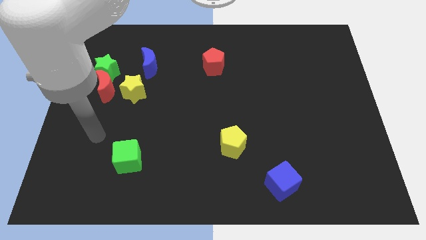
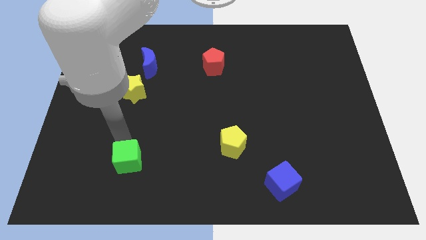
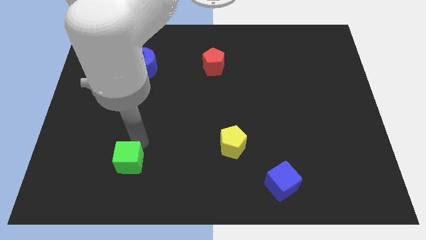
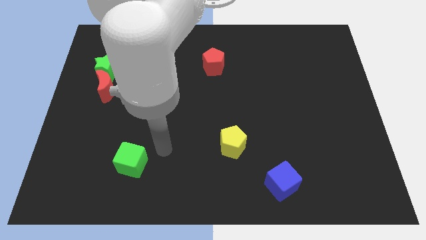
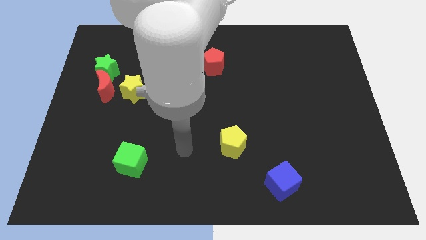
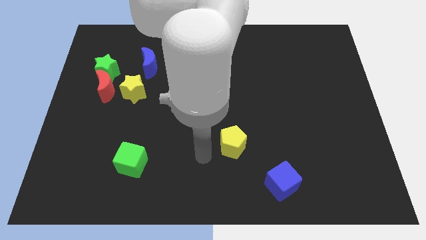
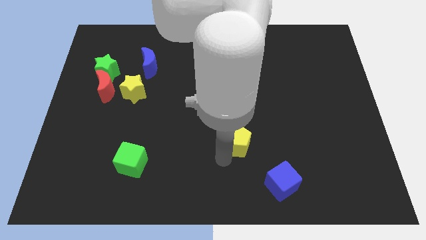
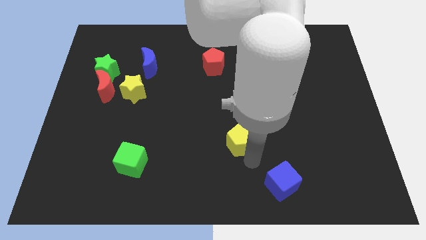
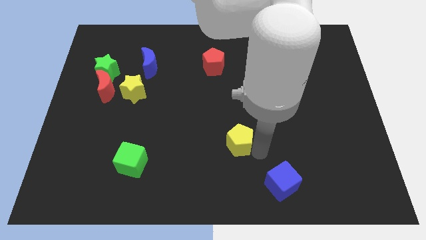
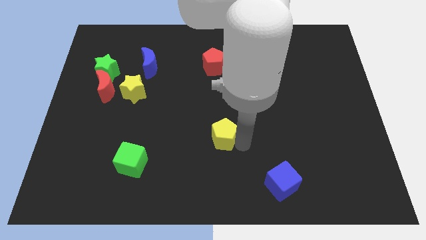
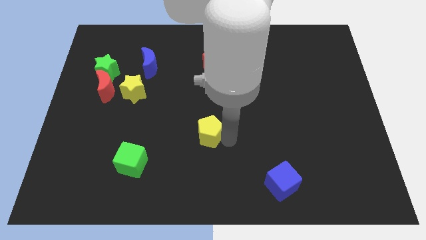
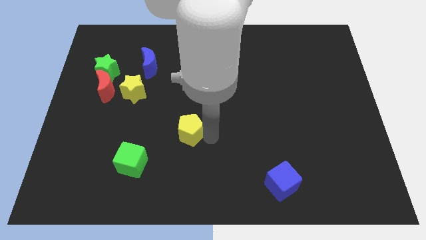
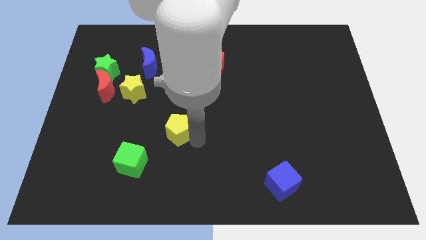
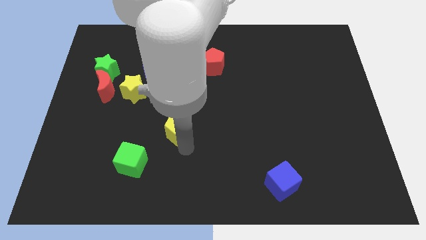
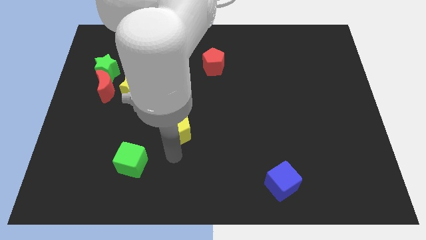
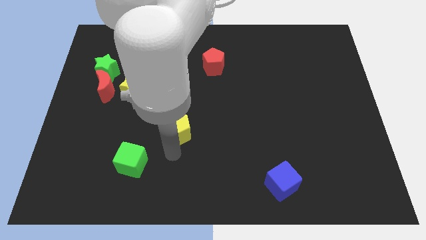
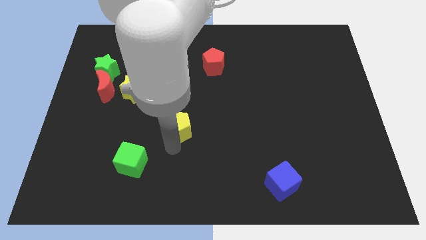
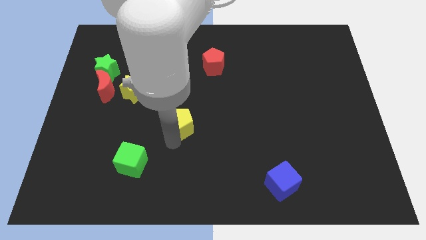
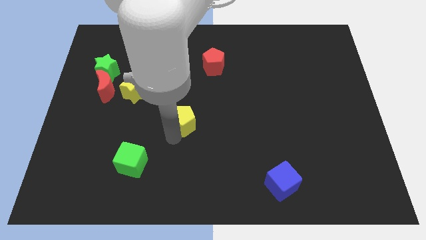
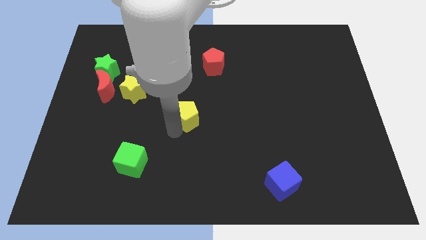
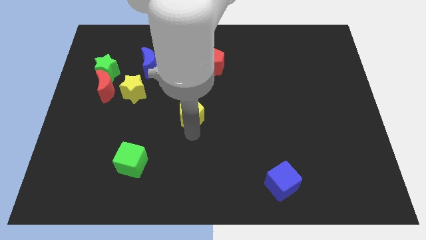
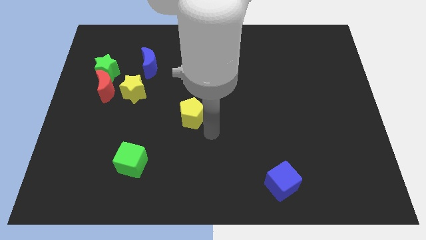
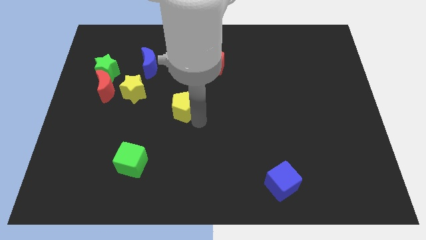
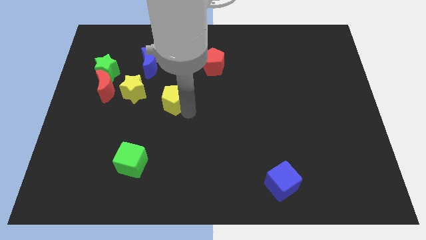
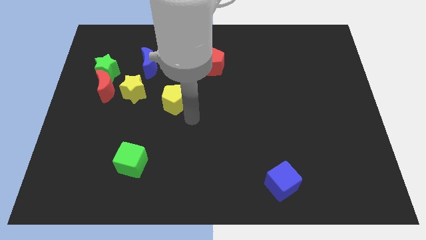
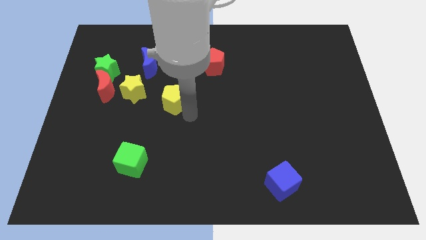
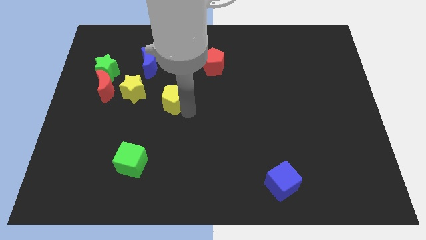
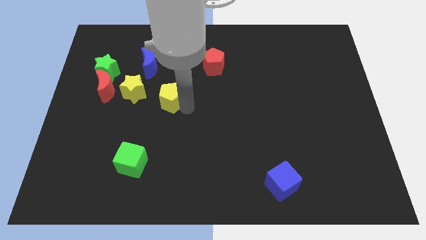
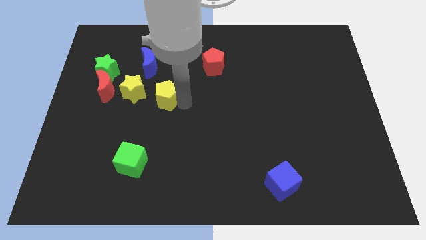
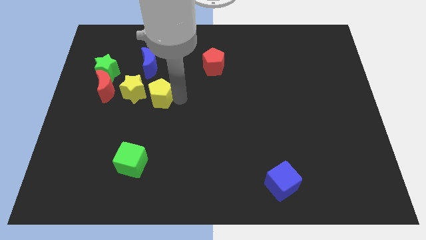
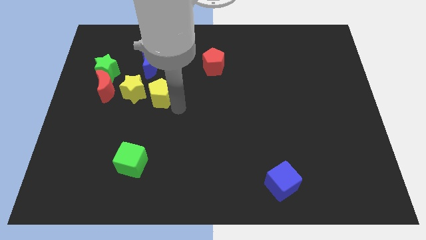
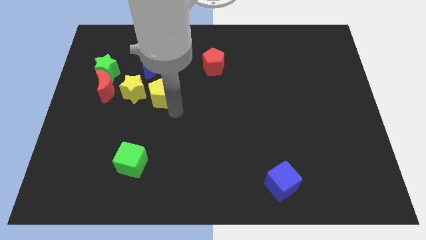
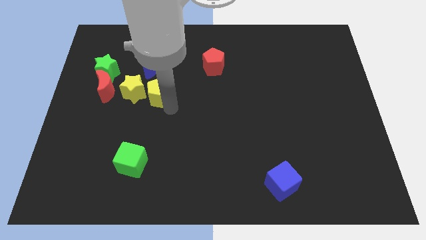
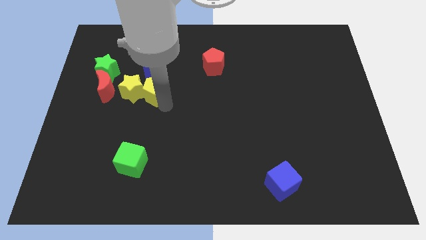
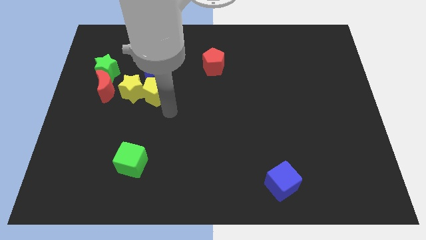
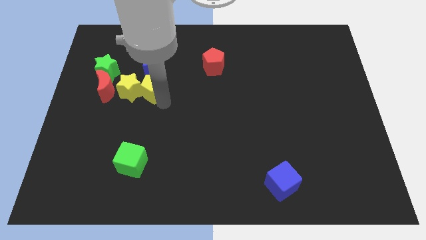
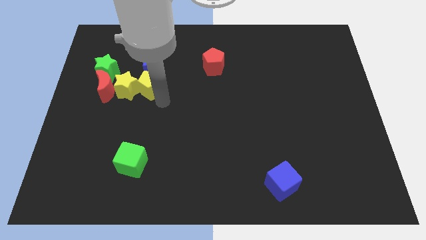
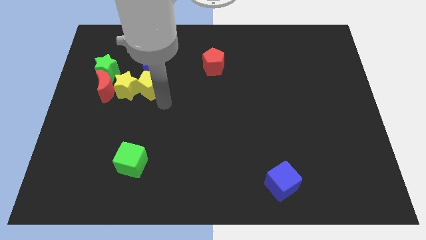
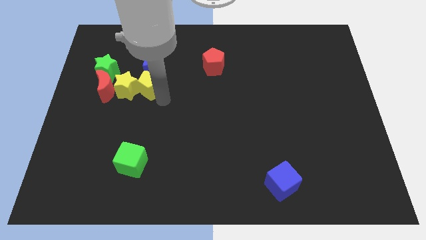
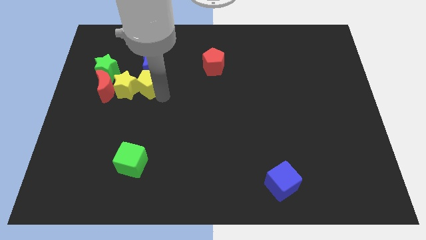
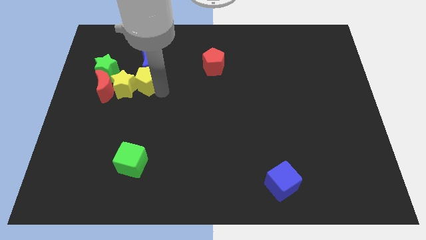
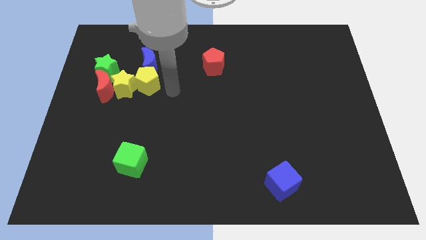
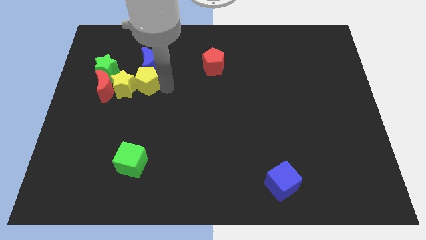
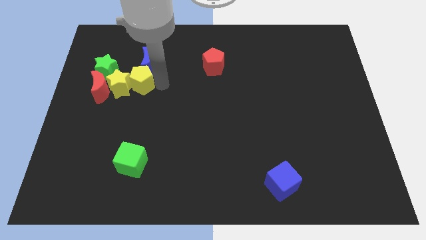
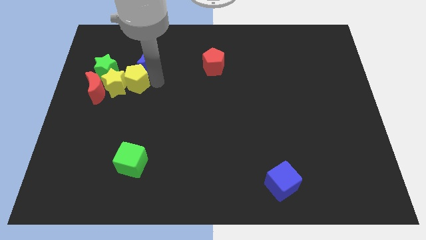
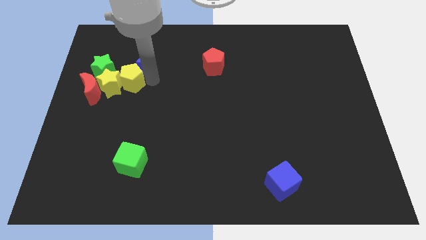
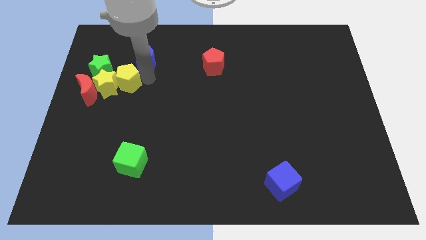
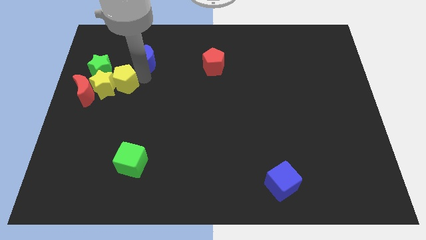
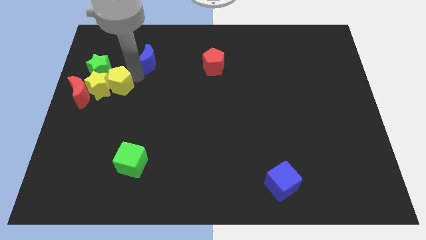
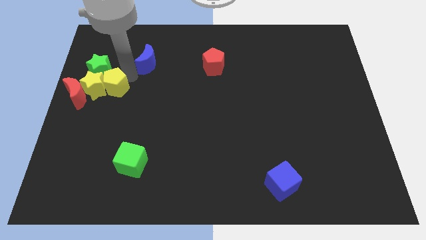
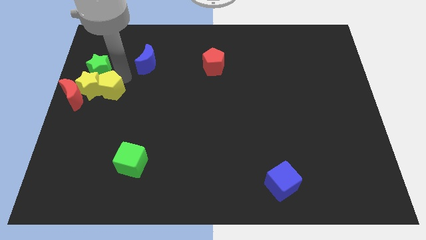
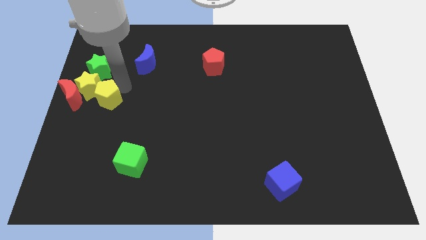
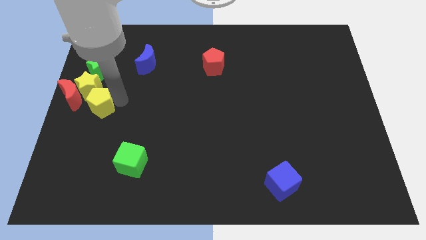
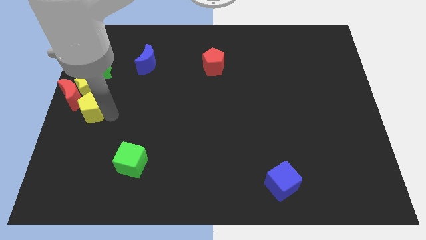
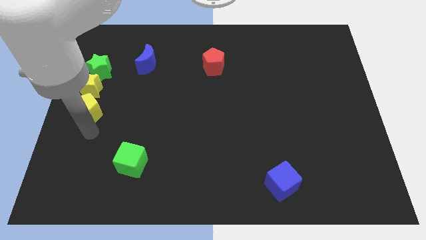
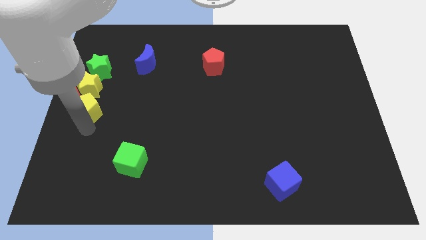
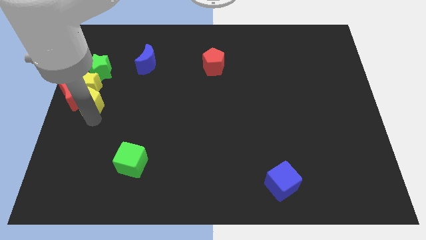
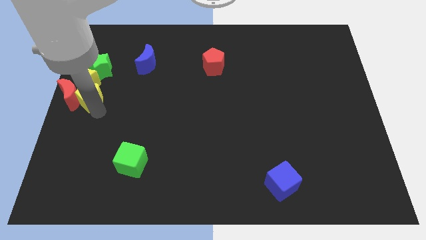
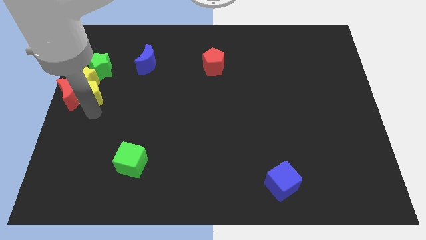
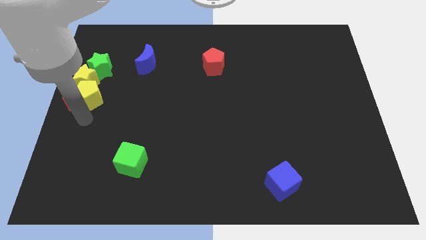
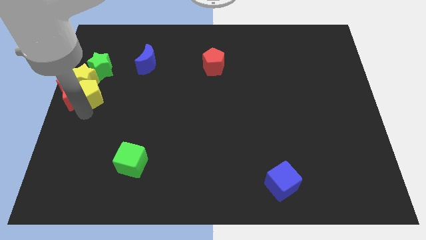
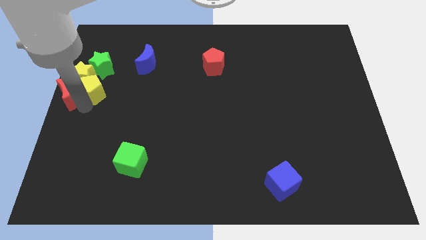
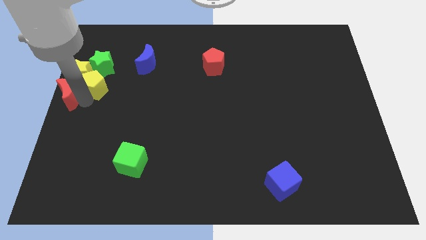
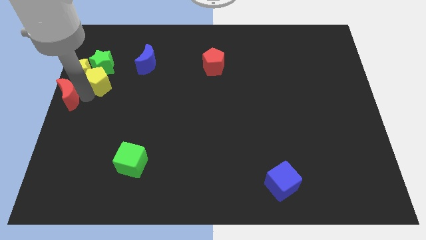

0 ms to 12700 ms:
move the yellow pentagon next to the green star

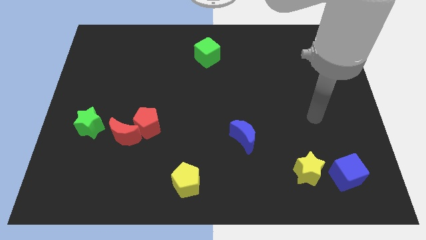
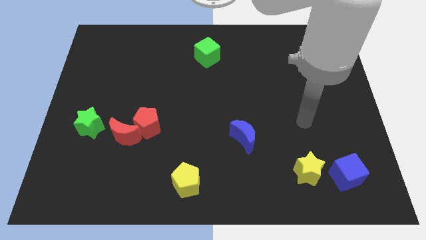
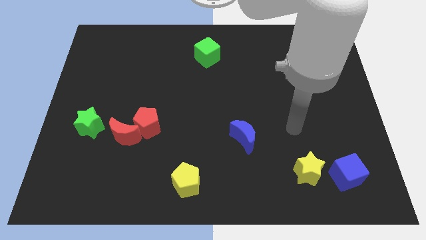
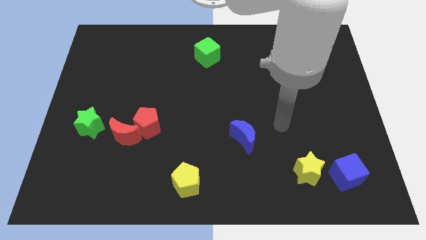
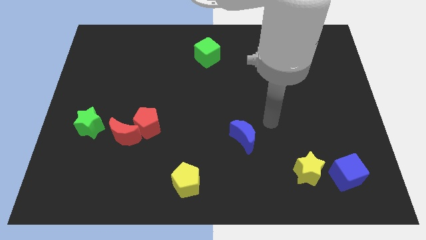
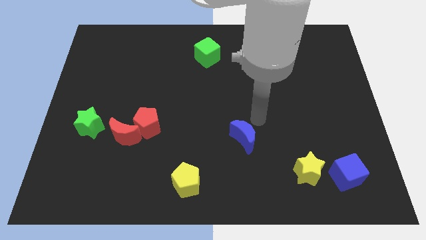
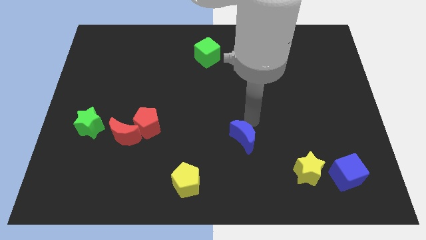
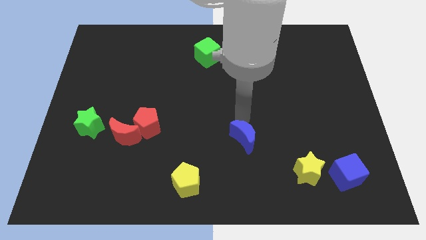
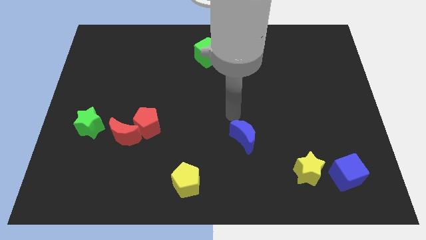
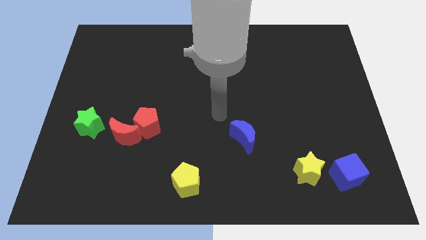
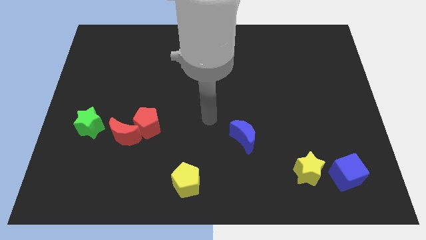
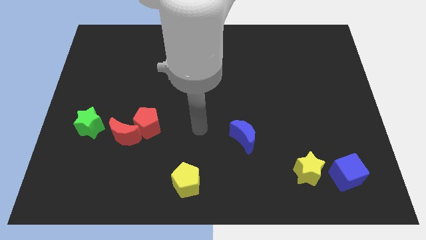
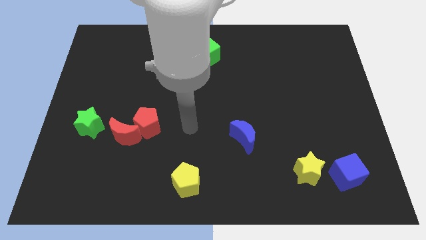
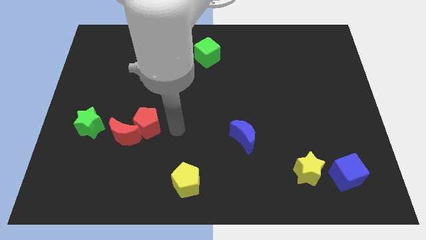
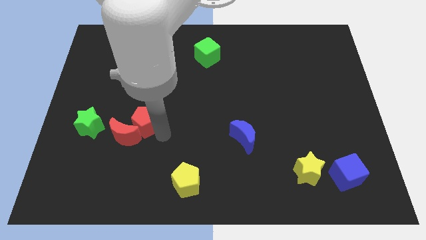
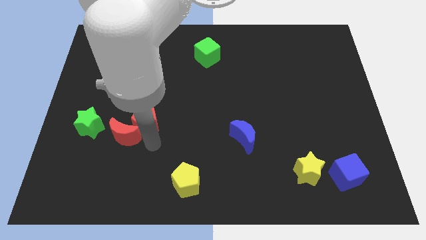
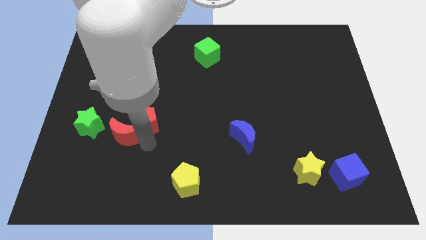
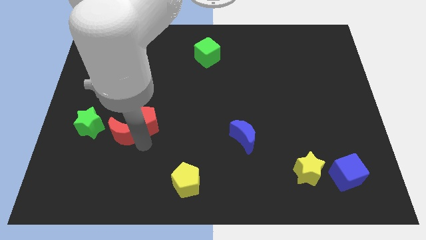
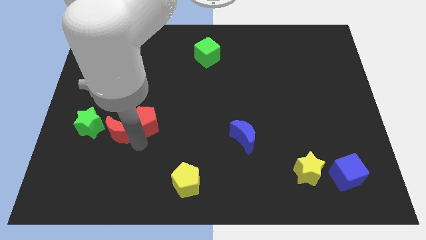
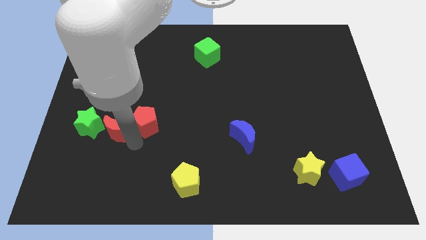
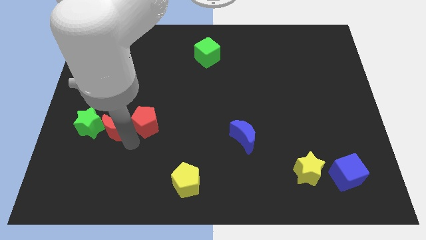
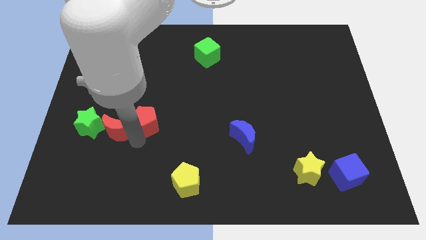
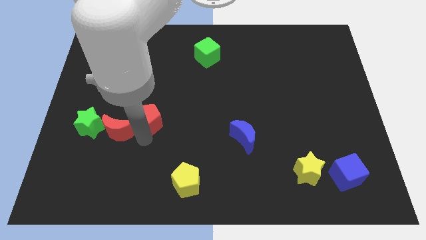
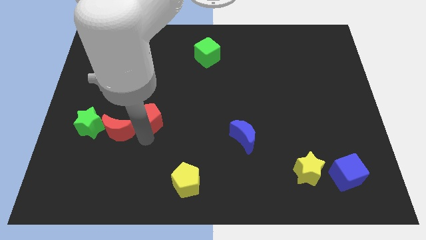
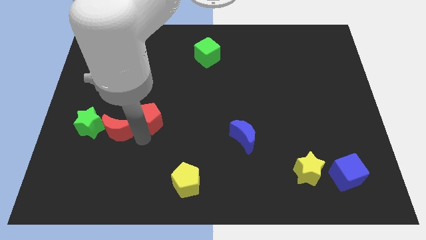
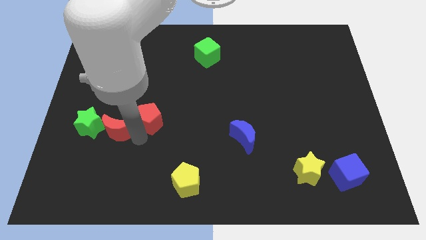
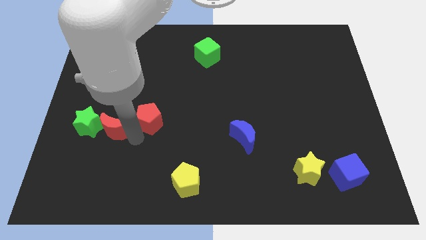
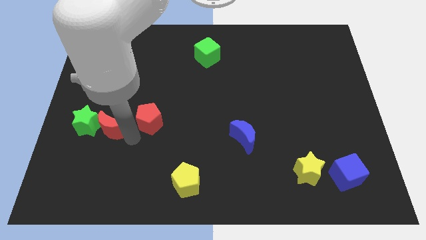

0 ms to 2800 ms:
slide the red moon next to the green star
